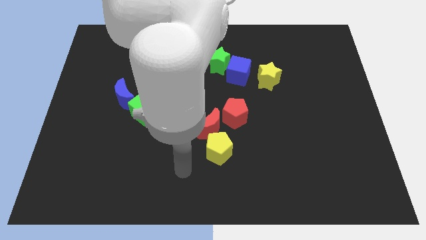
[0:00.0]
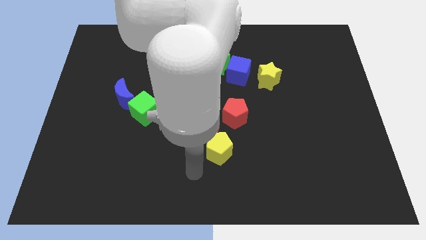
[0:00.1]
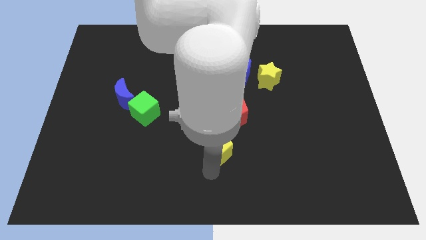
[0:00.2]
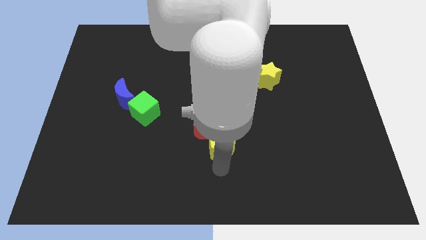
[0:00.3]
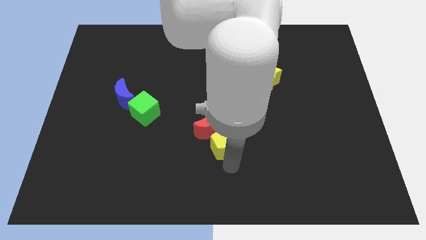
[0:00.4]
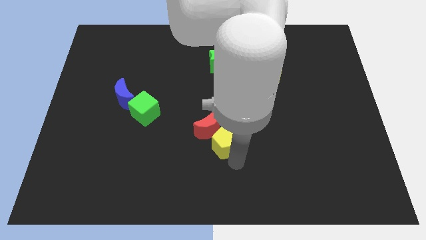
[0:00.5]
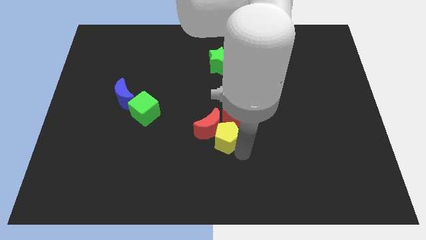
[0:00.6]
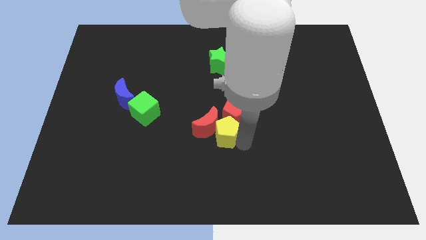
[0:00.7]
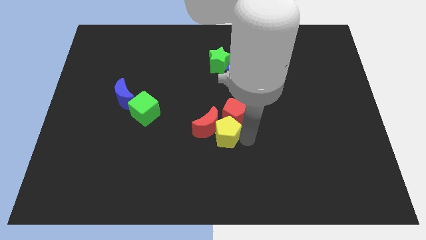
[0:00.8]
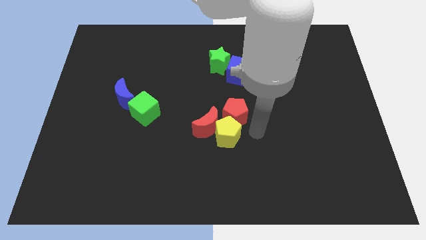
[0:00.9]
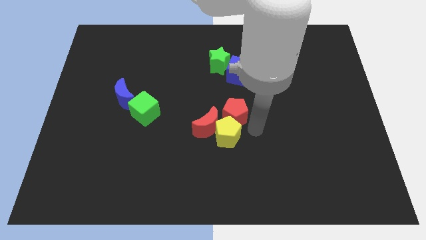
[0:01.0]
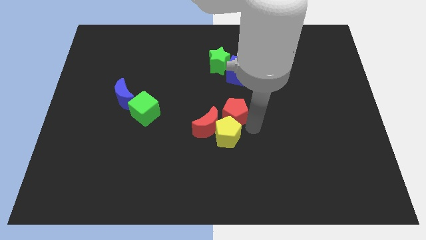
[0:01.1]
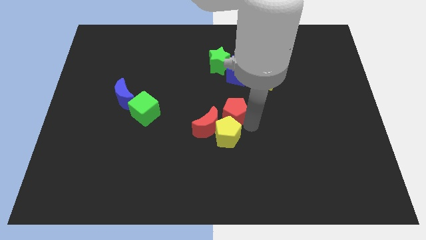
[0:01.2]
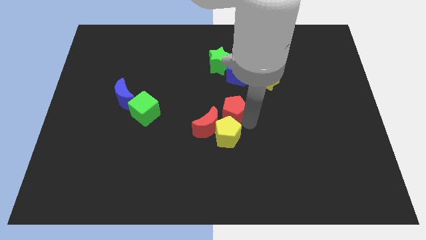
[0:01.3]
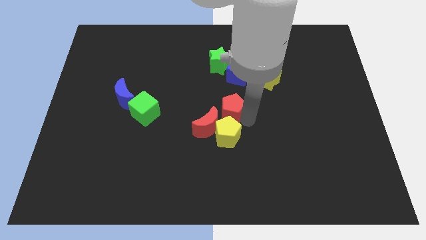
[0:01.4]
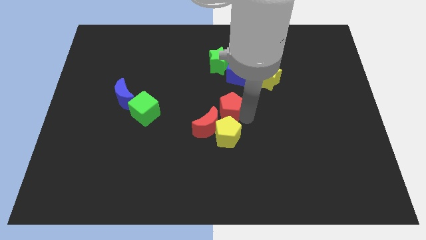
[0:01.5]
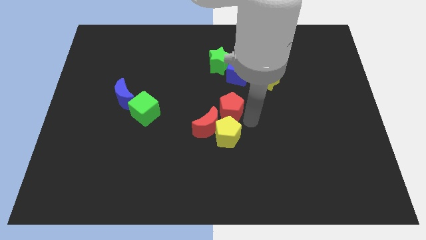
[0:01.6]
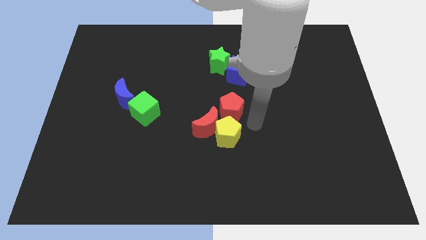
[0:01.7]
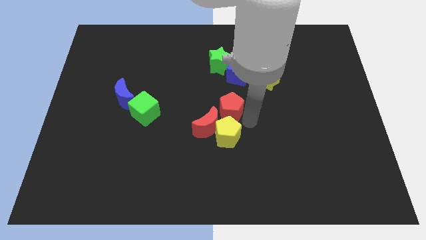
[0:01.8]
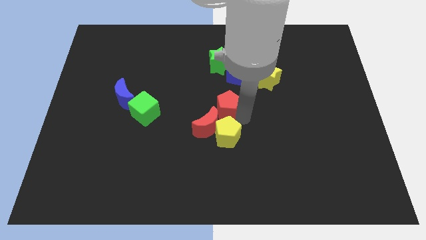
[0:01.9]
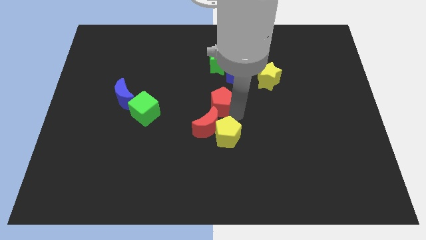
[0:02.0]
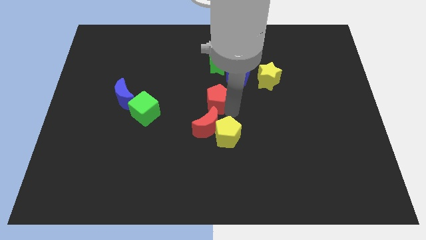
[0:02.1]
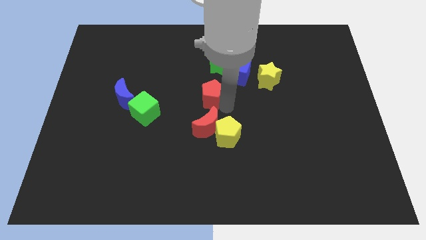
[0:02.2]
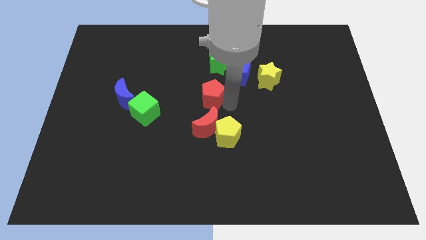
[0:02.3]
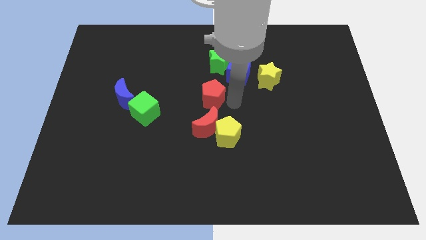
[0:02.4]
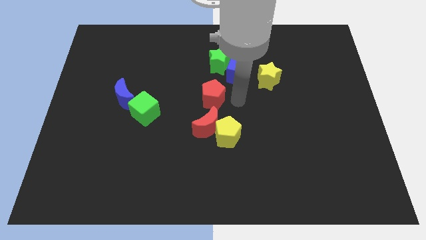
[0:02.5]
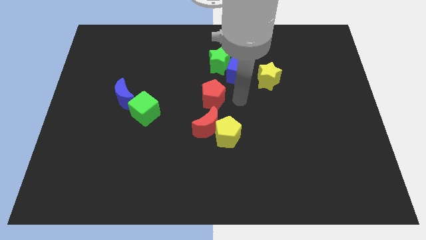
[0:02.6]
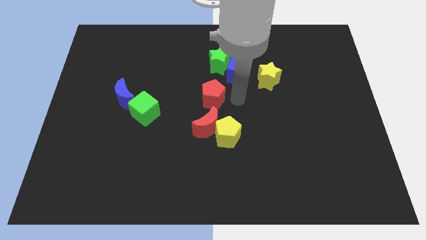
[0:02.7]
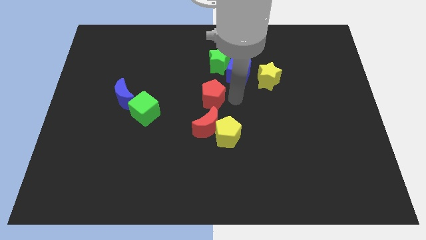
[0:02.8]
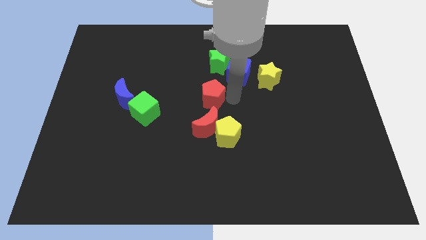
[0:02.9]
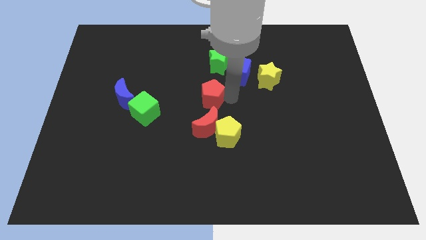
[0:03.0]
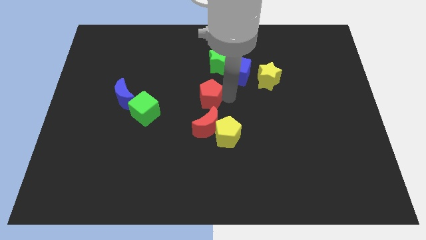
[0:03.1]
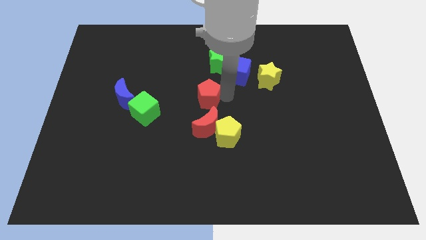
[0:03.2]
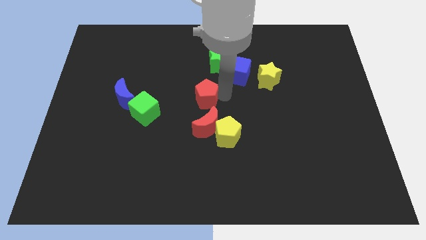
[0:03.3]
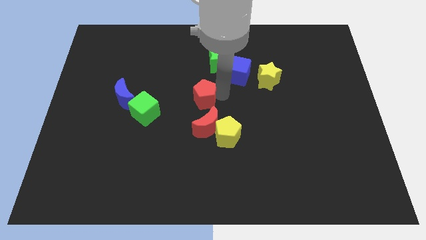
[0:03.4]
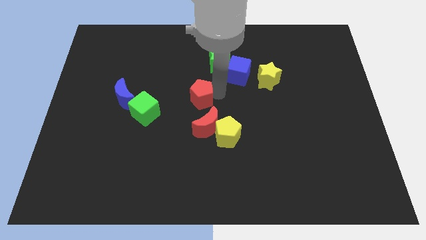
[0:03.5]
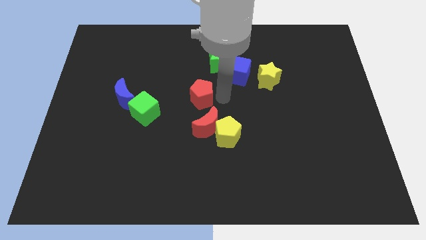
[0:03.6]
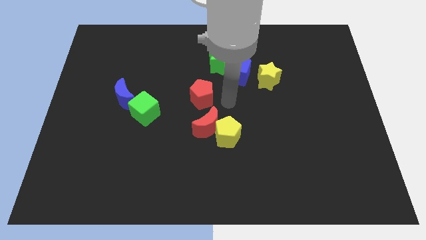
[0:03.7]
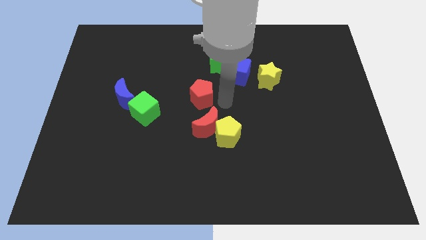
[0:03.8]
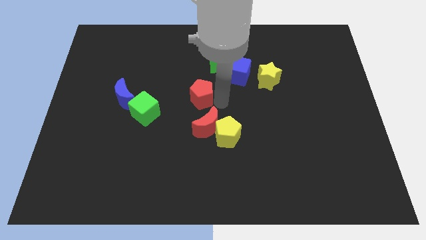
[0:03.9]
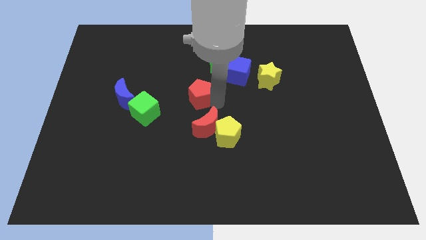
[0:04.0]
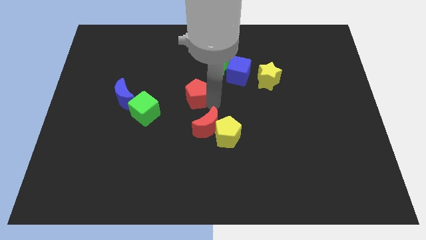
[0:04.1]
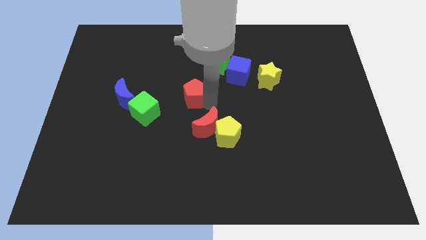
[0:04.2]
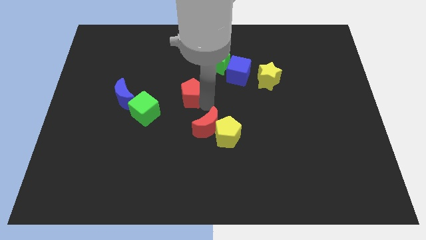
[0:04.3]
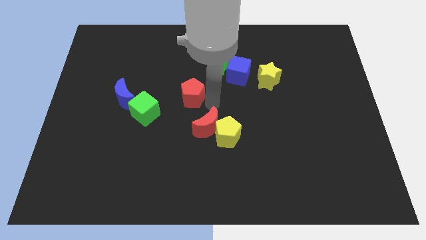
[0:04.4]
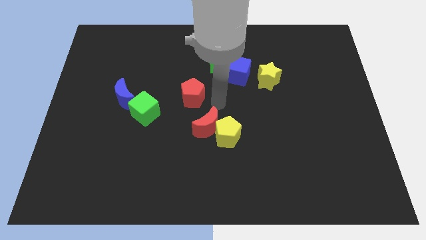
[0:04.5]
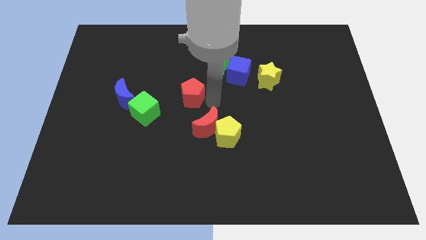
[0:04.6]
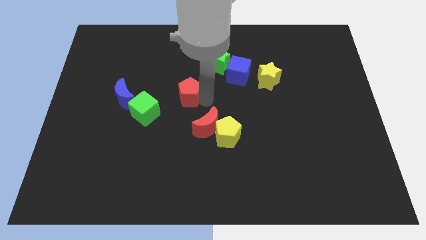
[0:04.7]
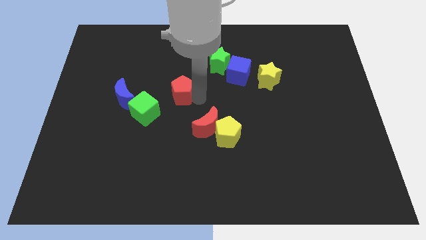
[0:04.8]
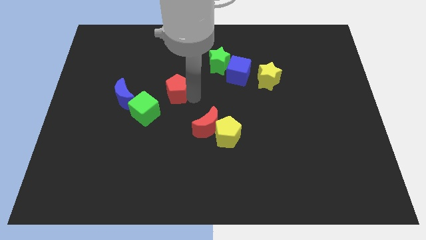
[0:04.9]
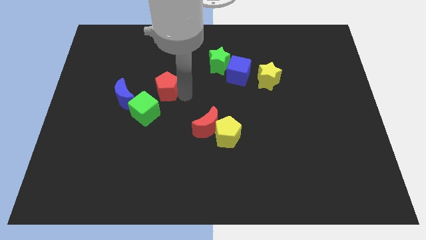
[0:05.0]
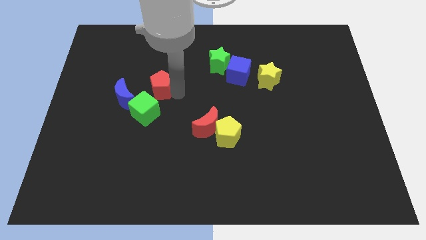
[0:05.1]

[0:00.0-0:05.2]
slide the red pentagon diagonally up and to the right of the blue moon

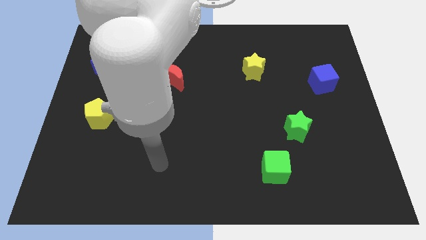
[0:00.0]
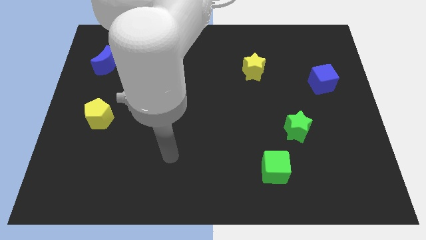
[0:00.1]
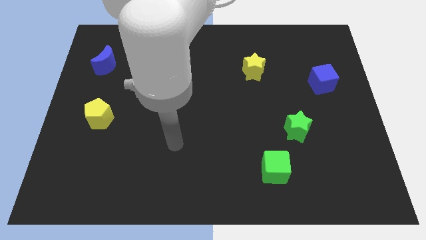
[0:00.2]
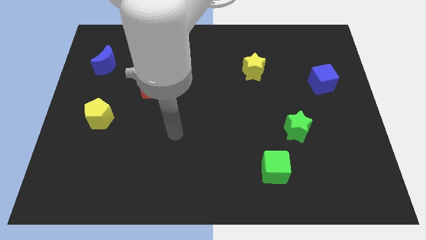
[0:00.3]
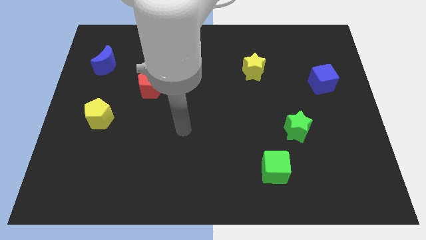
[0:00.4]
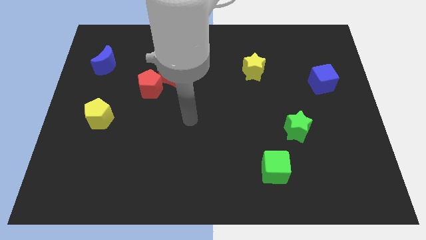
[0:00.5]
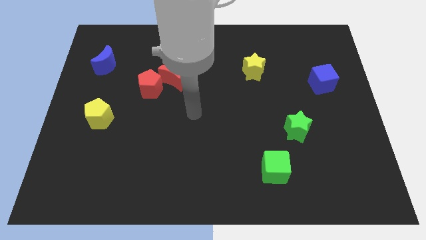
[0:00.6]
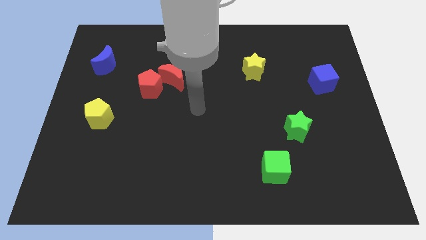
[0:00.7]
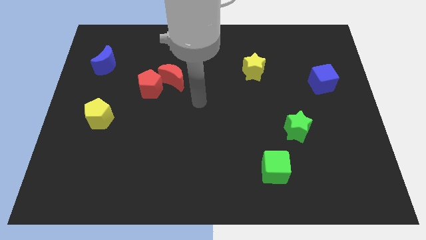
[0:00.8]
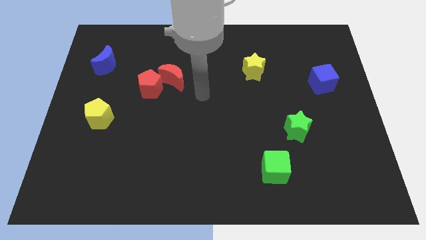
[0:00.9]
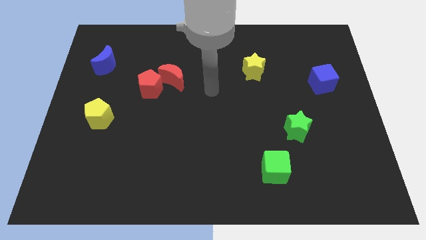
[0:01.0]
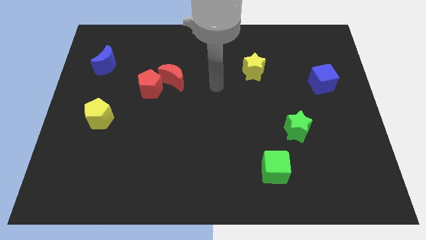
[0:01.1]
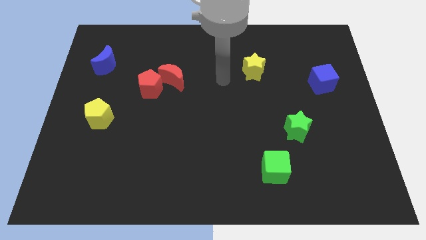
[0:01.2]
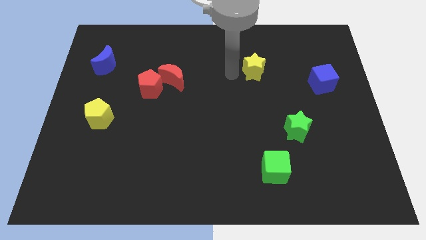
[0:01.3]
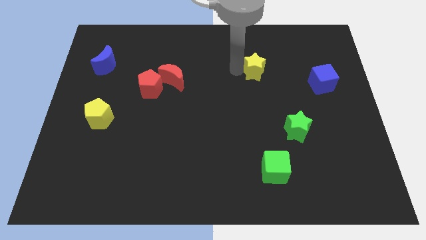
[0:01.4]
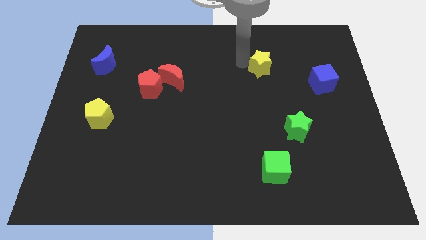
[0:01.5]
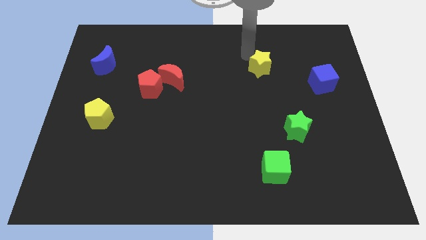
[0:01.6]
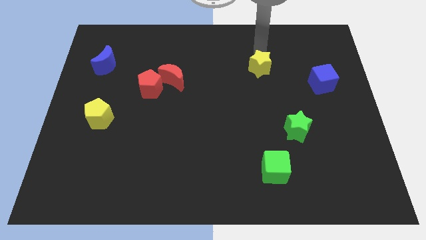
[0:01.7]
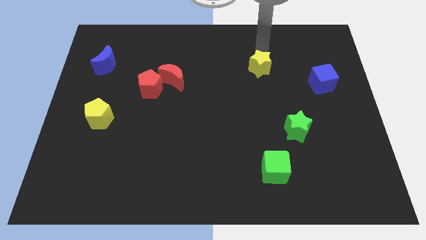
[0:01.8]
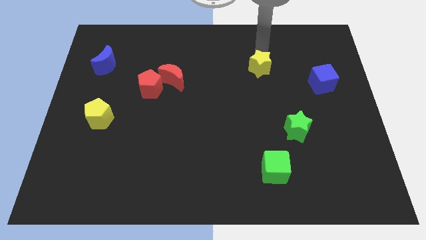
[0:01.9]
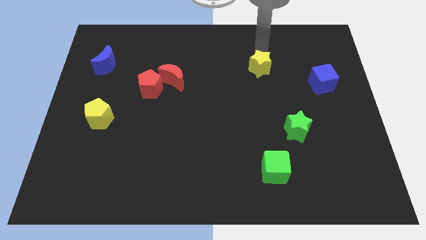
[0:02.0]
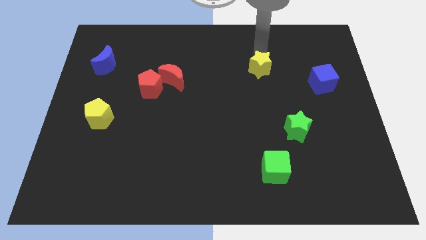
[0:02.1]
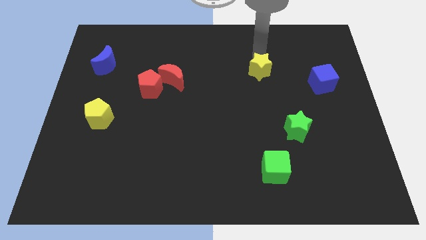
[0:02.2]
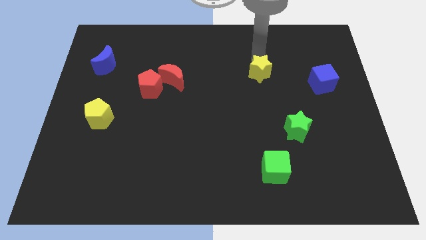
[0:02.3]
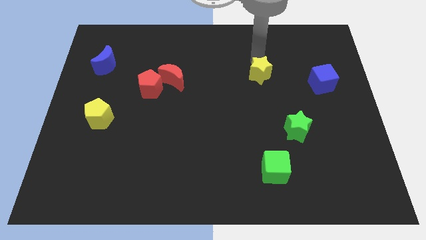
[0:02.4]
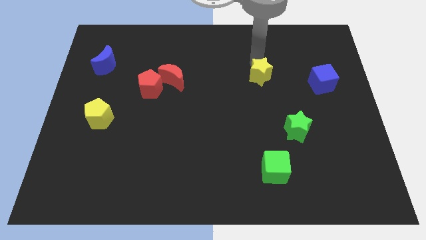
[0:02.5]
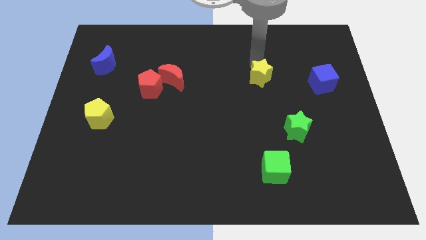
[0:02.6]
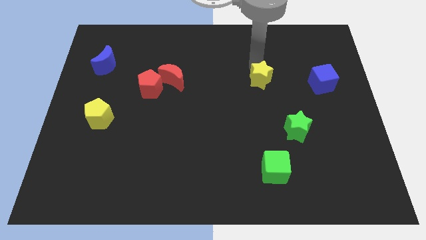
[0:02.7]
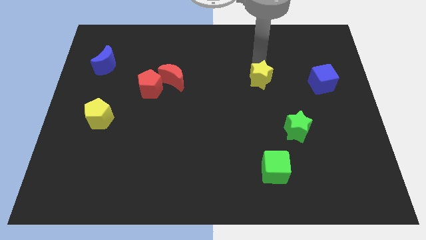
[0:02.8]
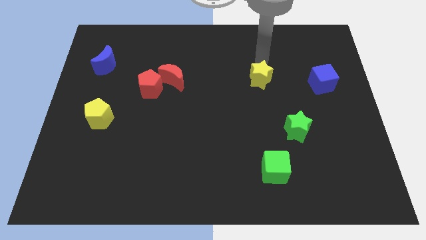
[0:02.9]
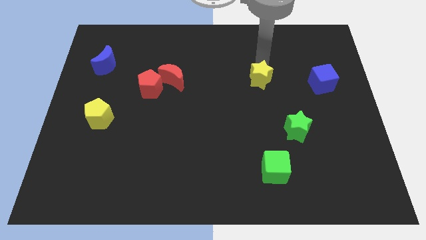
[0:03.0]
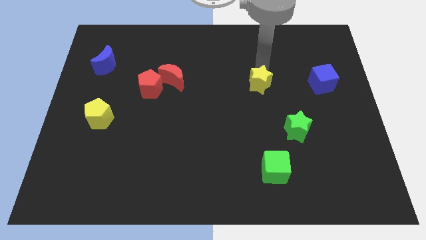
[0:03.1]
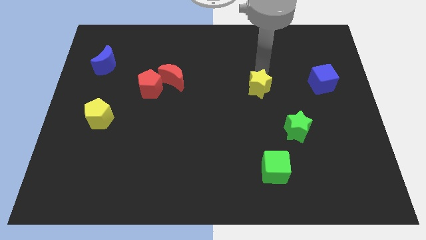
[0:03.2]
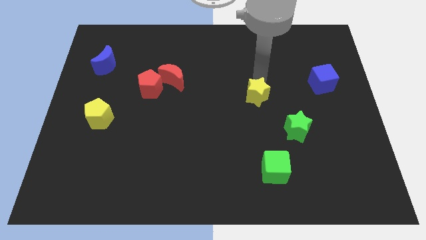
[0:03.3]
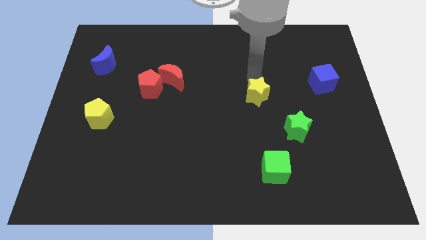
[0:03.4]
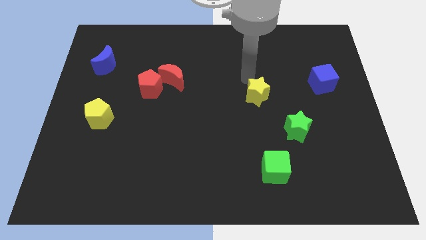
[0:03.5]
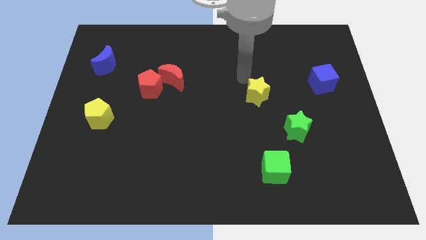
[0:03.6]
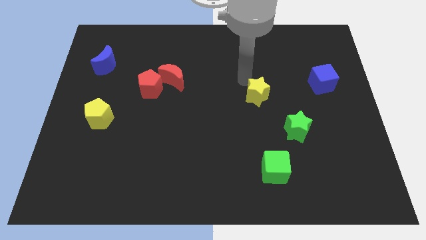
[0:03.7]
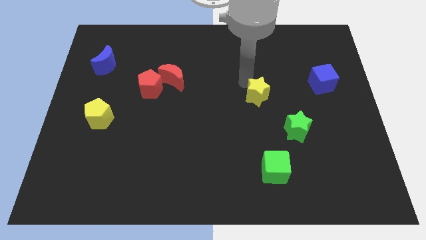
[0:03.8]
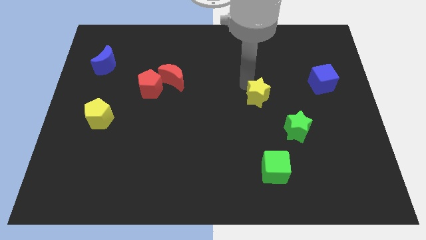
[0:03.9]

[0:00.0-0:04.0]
push the yellow star to the top left of the green star
